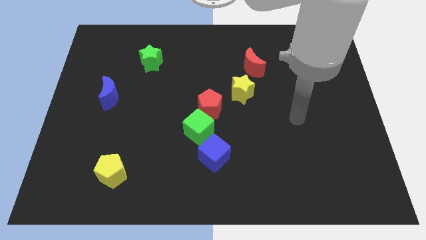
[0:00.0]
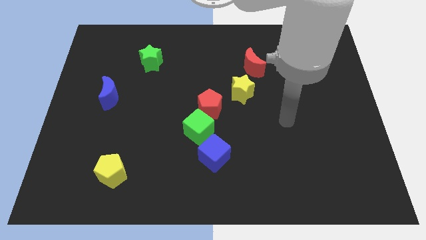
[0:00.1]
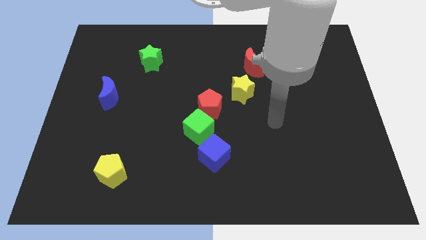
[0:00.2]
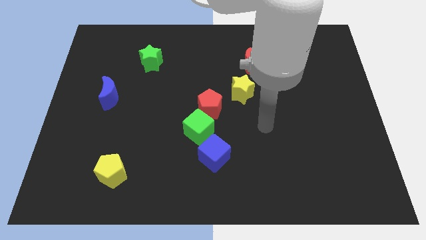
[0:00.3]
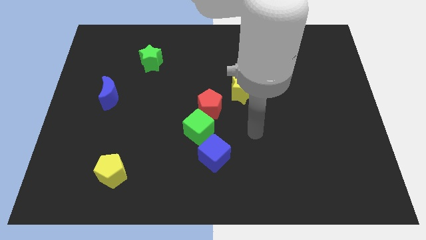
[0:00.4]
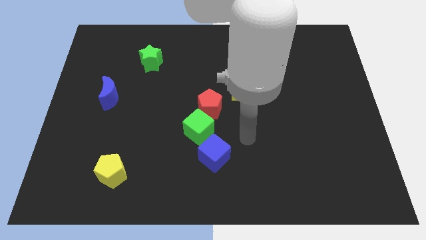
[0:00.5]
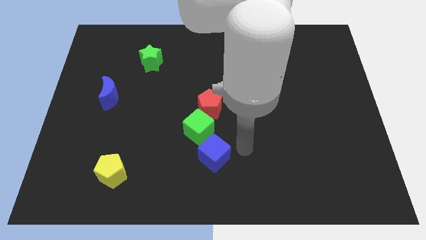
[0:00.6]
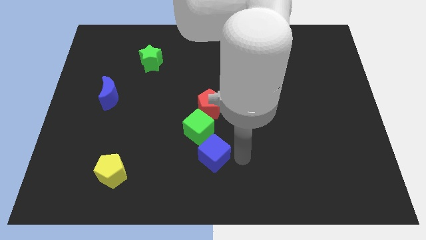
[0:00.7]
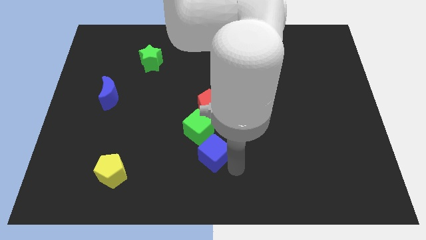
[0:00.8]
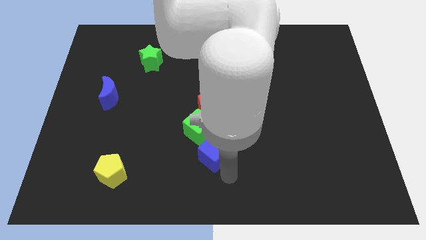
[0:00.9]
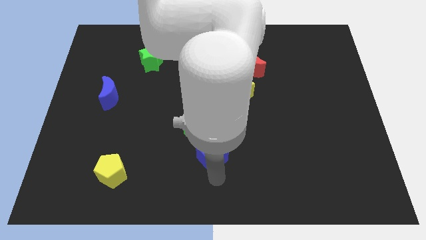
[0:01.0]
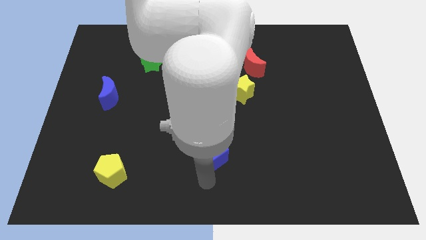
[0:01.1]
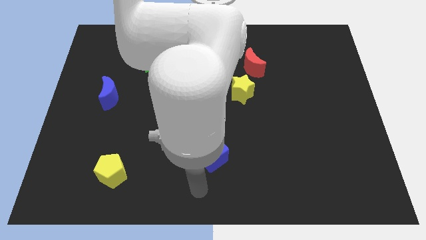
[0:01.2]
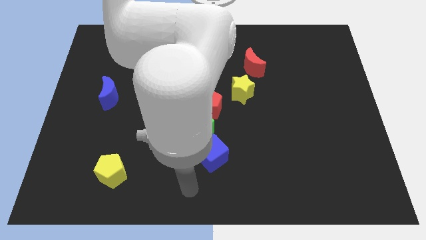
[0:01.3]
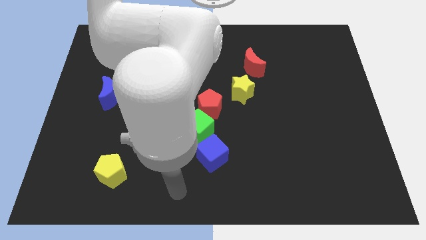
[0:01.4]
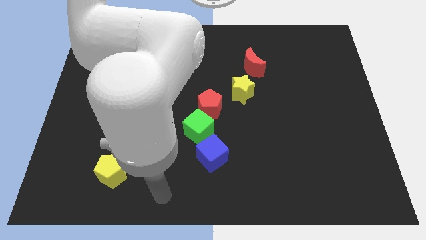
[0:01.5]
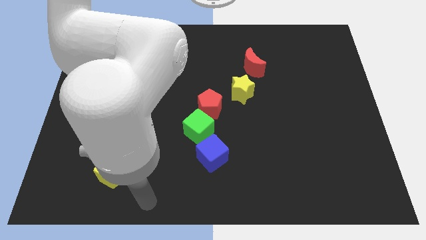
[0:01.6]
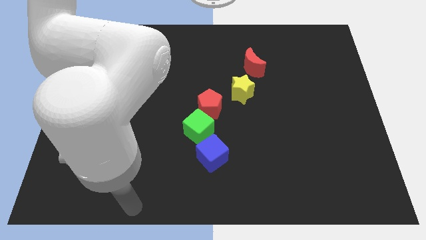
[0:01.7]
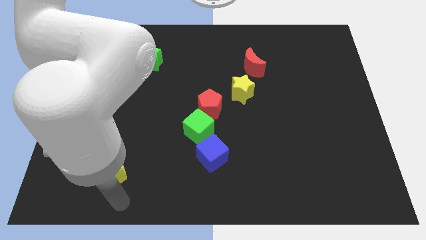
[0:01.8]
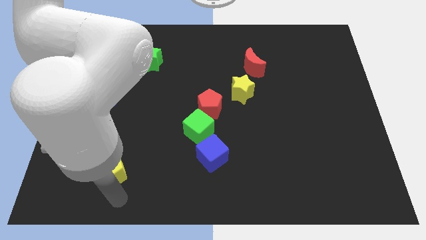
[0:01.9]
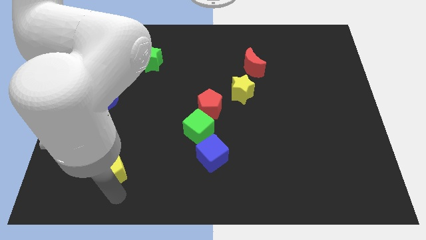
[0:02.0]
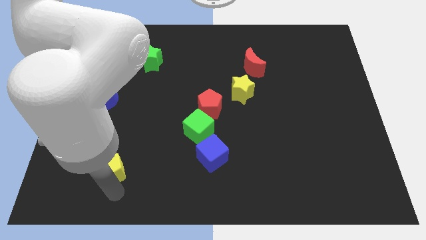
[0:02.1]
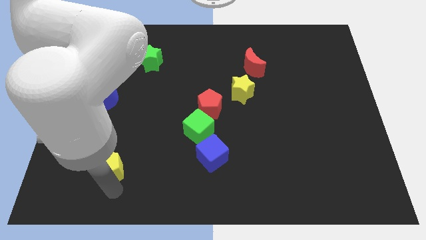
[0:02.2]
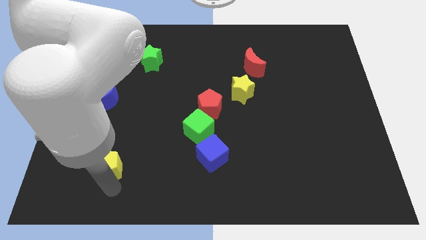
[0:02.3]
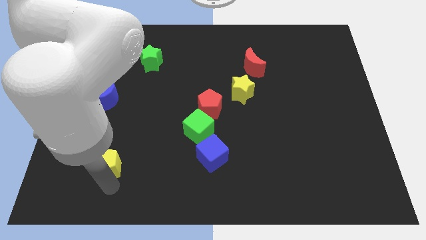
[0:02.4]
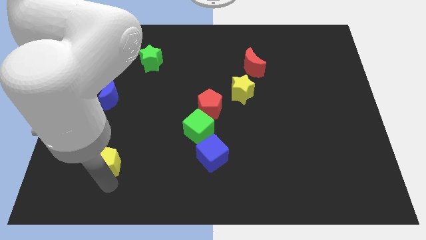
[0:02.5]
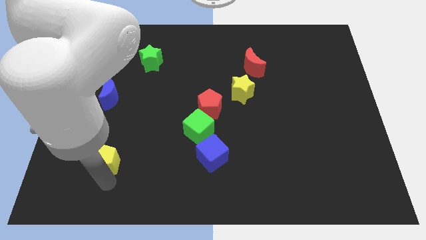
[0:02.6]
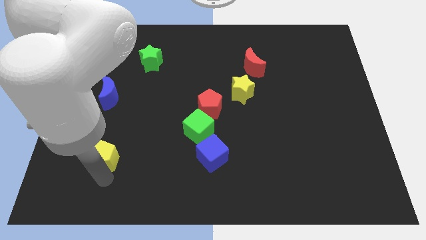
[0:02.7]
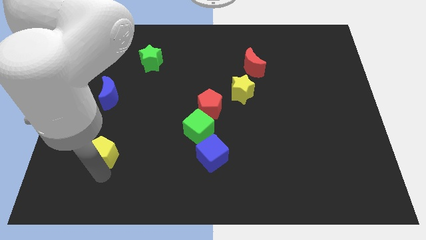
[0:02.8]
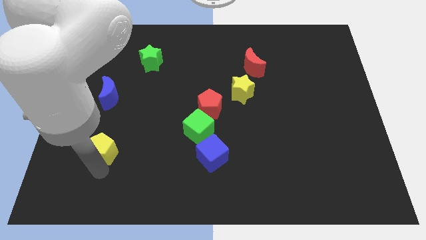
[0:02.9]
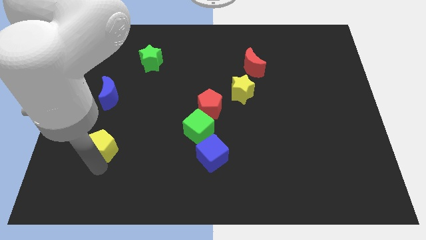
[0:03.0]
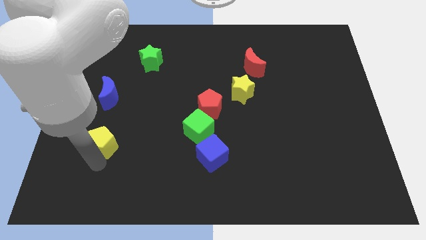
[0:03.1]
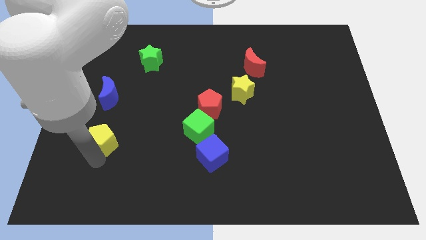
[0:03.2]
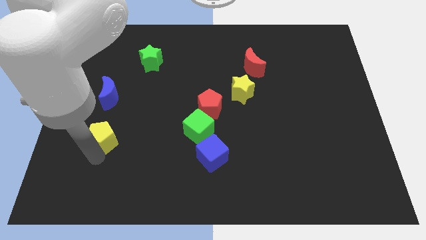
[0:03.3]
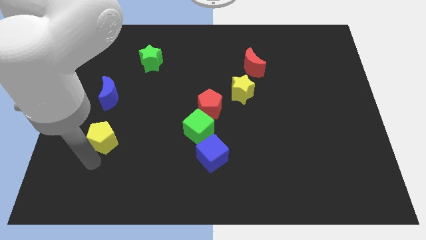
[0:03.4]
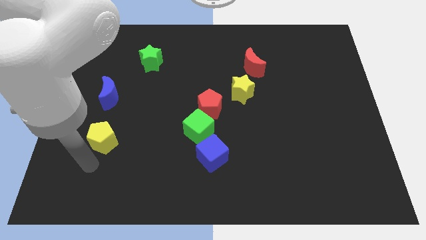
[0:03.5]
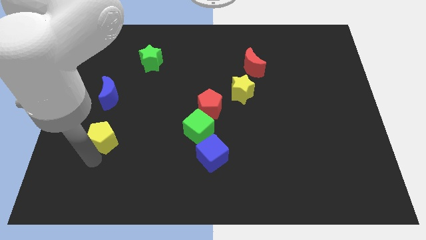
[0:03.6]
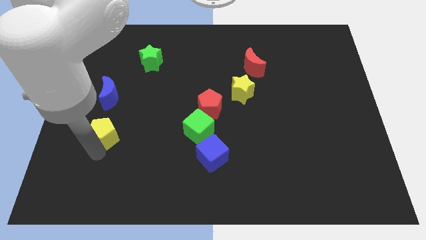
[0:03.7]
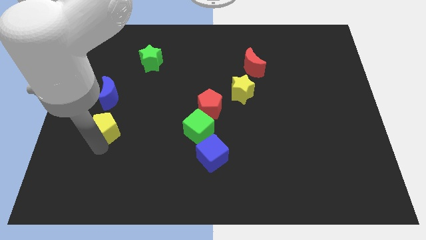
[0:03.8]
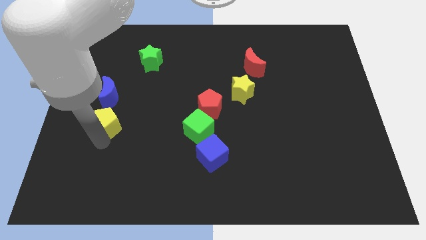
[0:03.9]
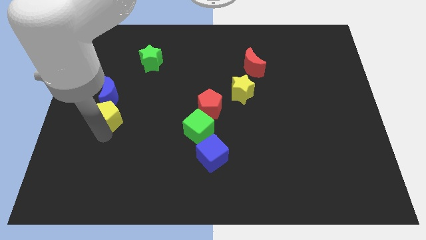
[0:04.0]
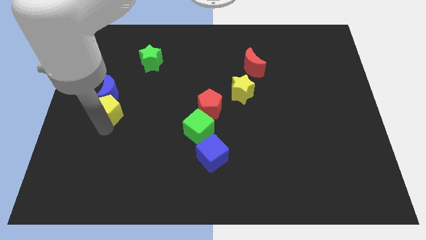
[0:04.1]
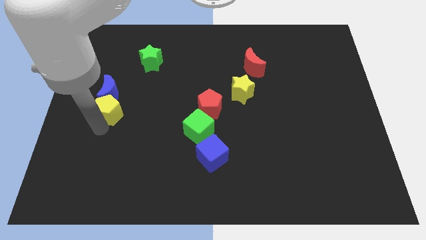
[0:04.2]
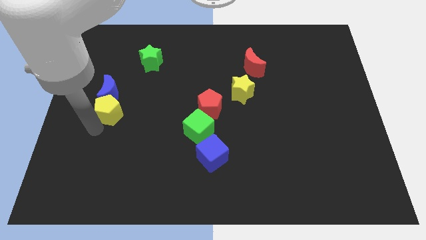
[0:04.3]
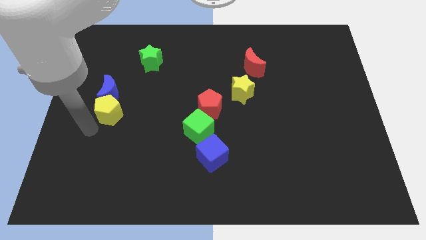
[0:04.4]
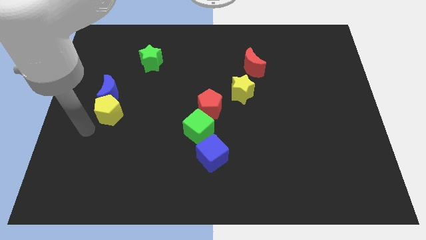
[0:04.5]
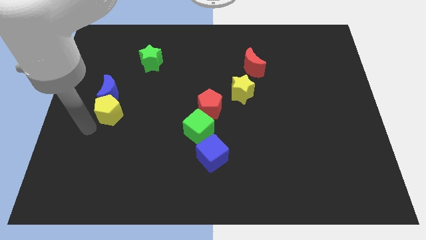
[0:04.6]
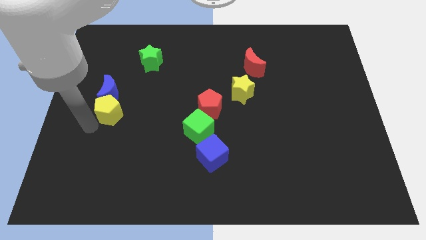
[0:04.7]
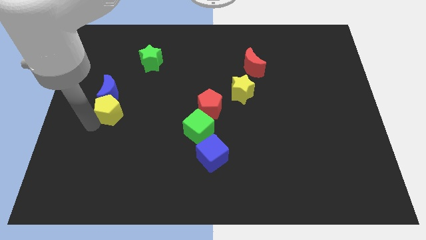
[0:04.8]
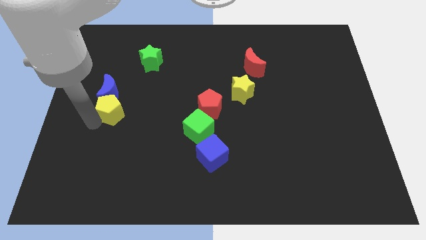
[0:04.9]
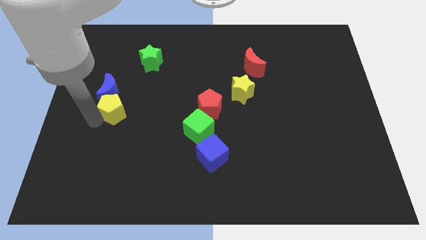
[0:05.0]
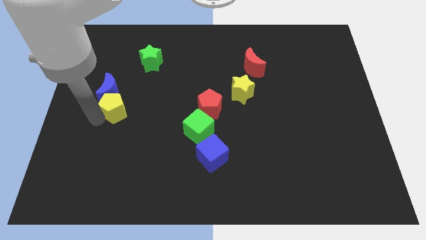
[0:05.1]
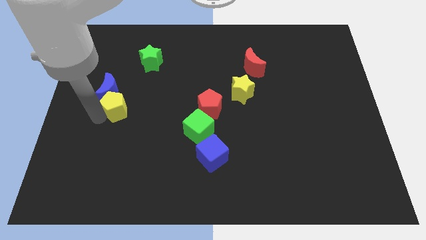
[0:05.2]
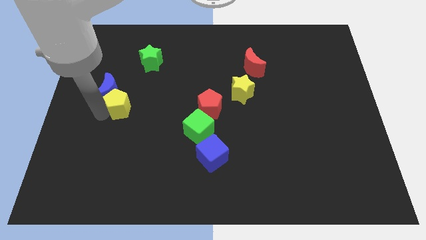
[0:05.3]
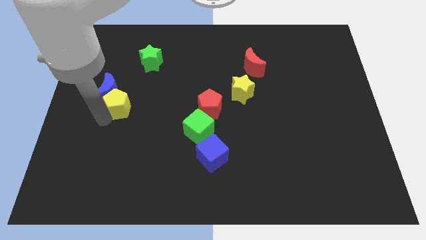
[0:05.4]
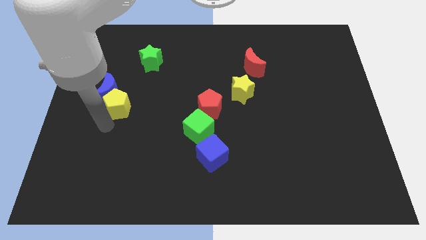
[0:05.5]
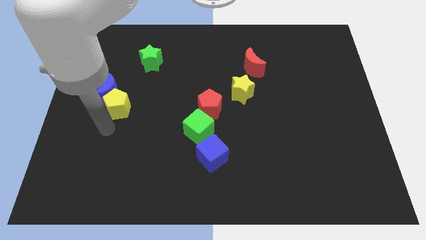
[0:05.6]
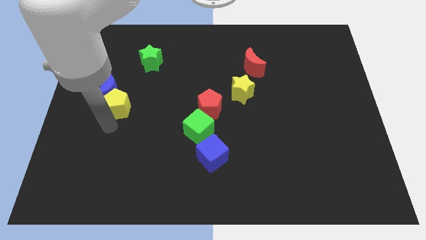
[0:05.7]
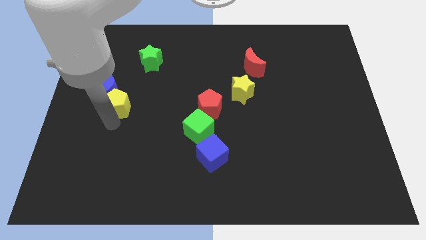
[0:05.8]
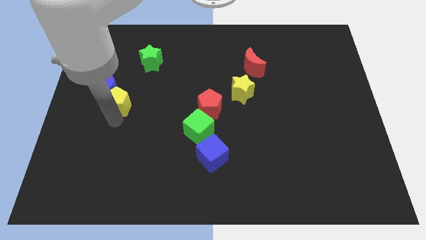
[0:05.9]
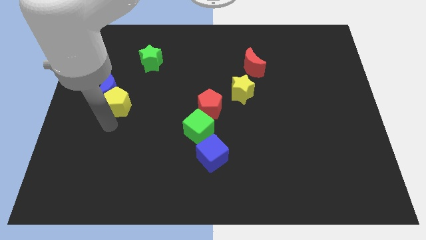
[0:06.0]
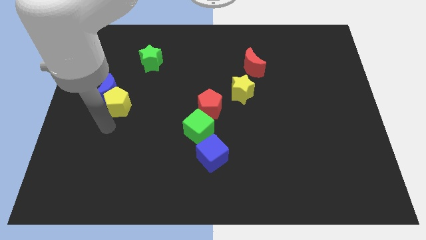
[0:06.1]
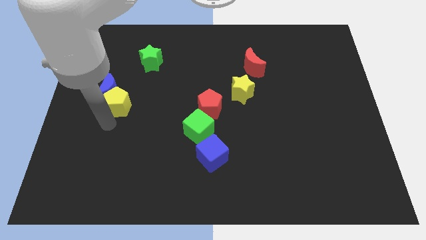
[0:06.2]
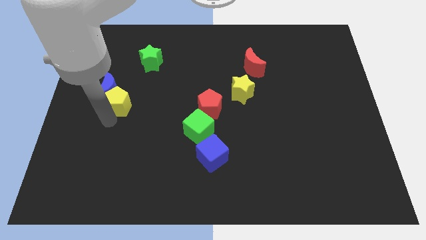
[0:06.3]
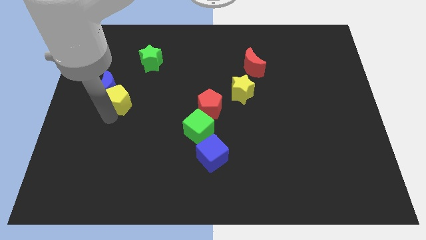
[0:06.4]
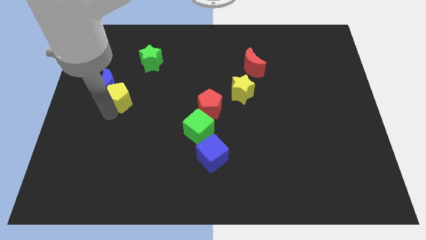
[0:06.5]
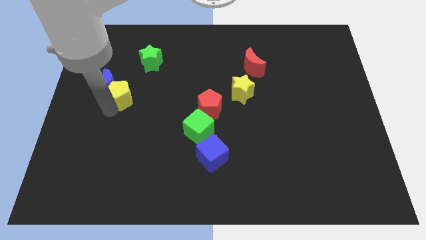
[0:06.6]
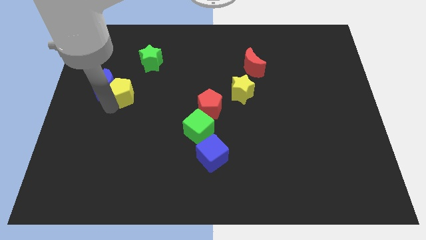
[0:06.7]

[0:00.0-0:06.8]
move the yellow pentagon diagonally up and to the right of the blue moon

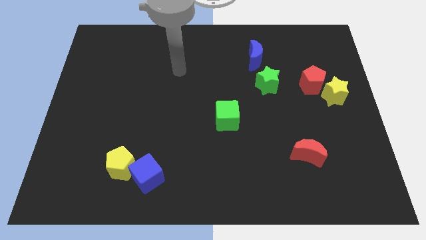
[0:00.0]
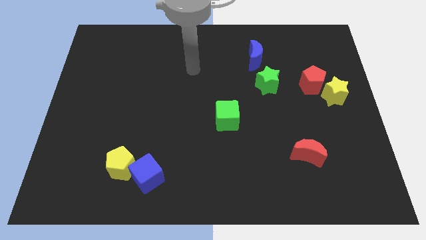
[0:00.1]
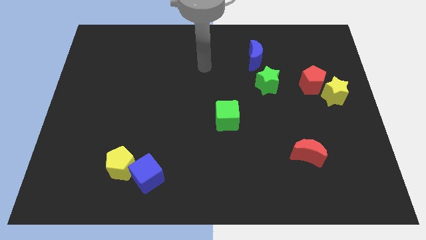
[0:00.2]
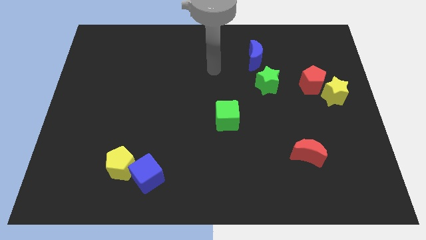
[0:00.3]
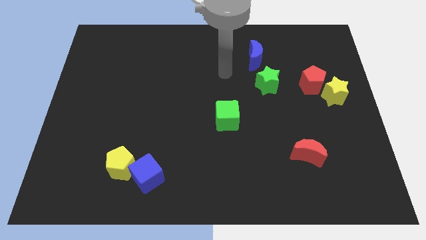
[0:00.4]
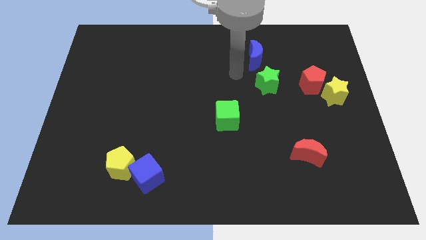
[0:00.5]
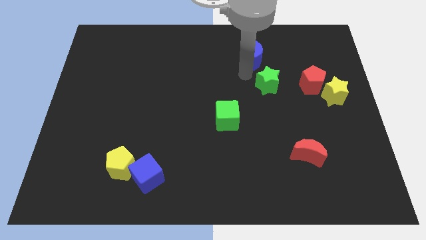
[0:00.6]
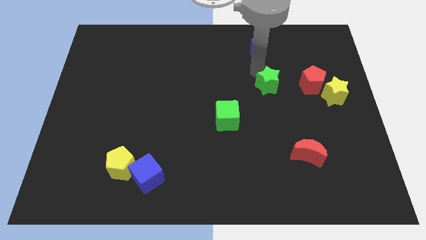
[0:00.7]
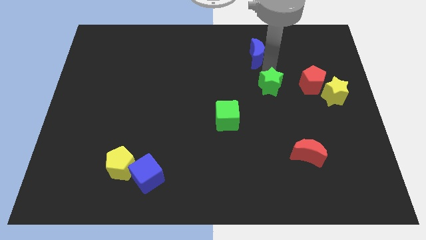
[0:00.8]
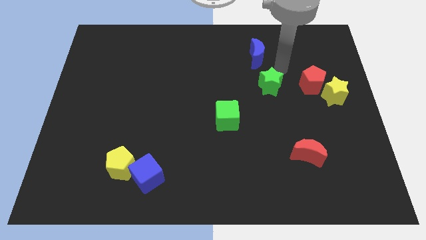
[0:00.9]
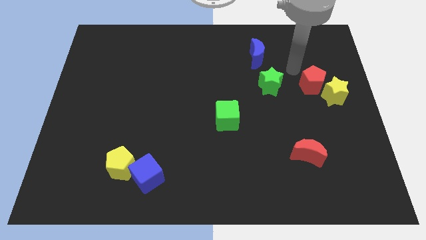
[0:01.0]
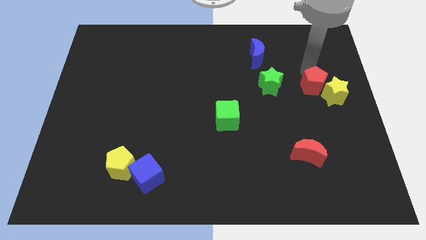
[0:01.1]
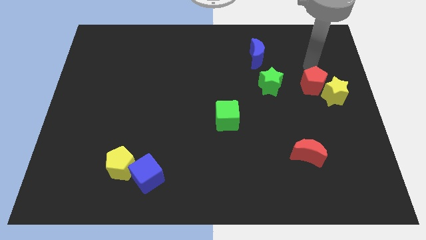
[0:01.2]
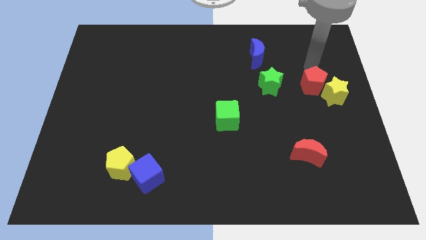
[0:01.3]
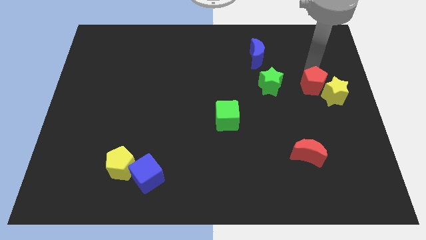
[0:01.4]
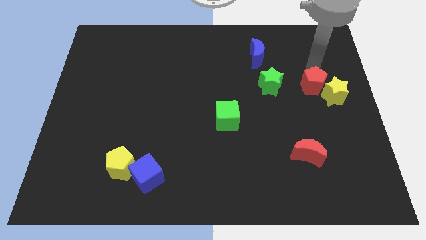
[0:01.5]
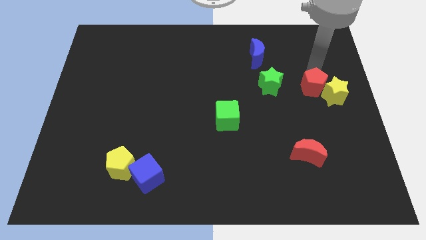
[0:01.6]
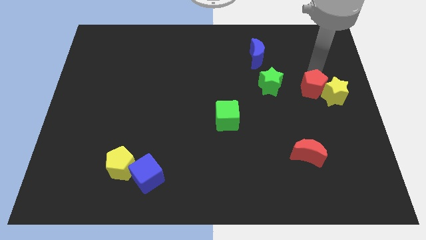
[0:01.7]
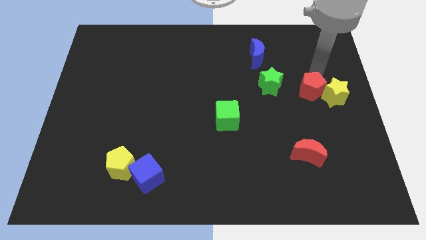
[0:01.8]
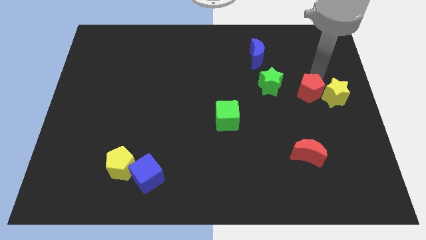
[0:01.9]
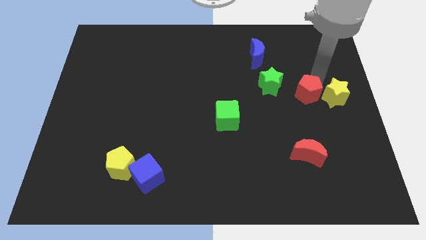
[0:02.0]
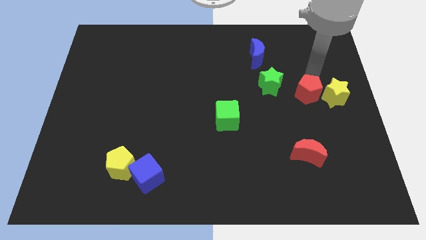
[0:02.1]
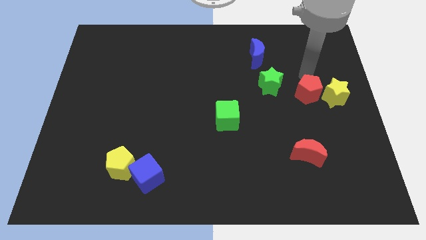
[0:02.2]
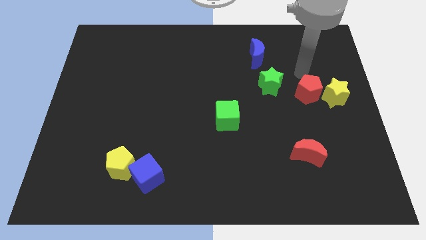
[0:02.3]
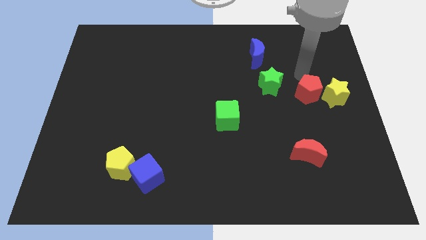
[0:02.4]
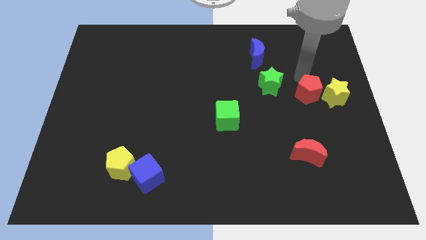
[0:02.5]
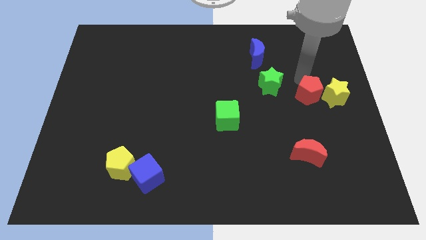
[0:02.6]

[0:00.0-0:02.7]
push the red pentagon to the bottom left of the yellow star
